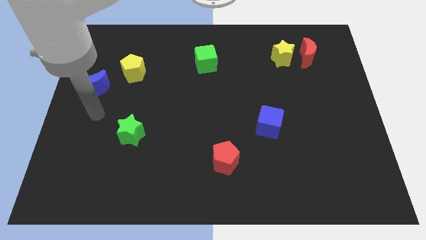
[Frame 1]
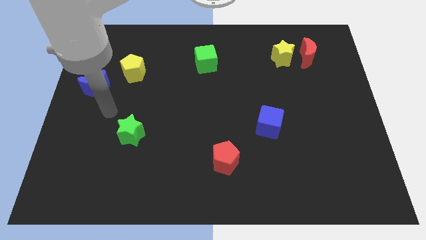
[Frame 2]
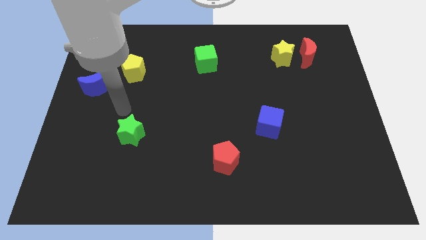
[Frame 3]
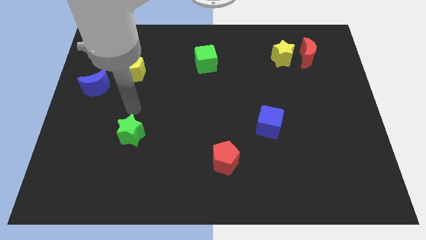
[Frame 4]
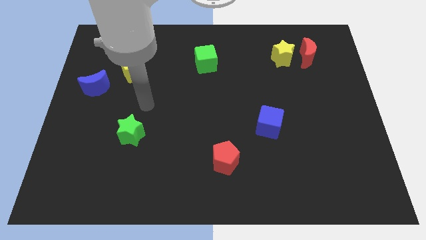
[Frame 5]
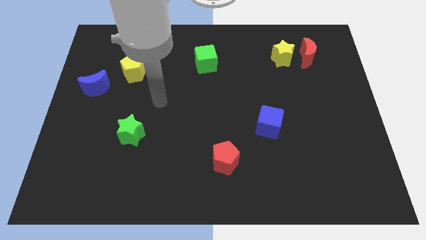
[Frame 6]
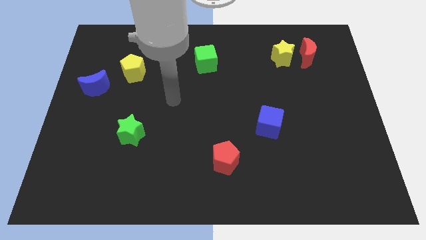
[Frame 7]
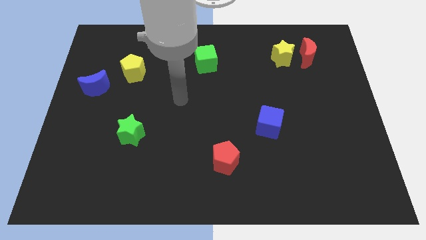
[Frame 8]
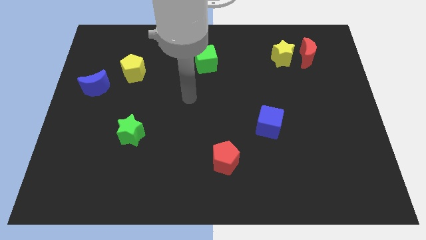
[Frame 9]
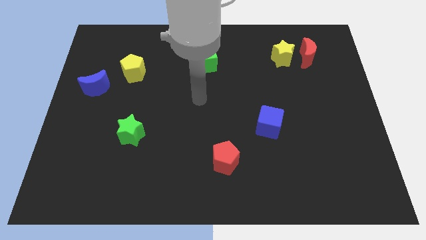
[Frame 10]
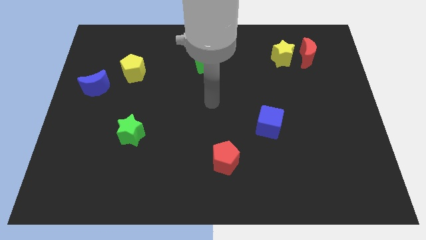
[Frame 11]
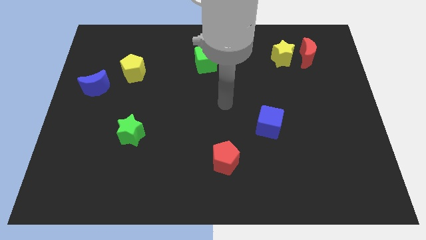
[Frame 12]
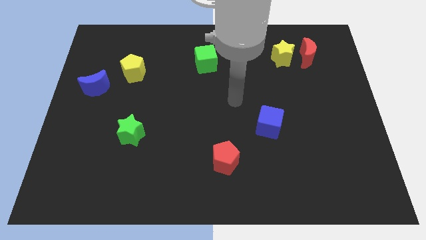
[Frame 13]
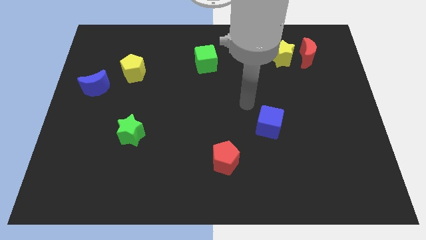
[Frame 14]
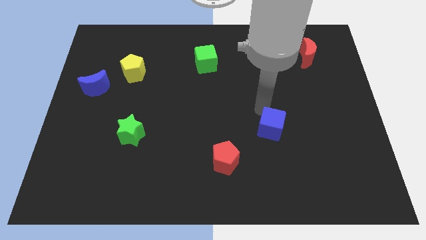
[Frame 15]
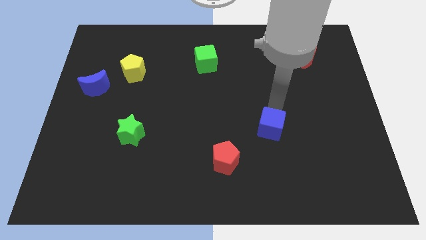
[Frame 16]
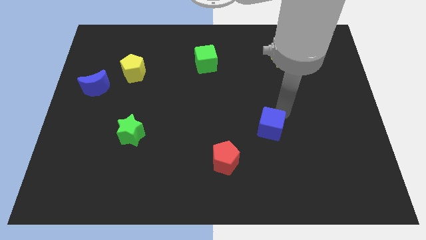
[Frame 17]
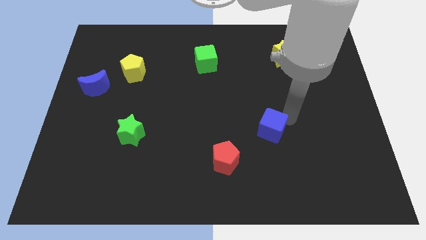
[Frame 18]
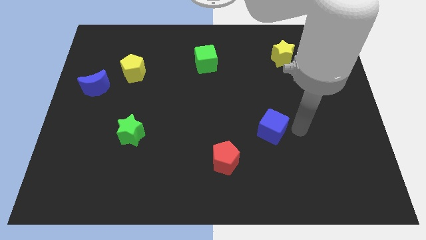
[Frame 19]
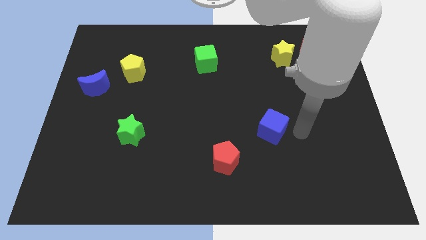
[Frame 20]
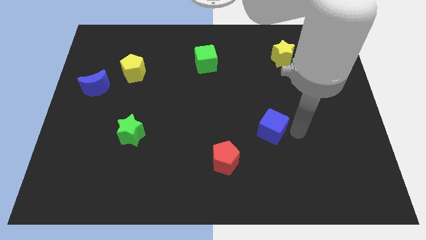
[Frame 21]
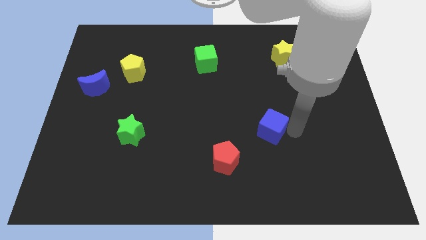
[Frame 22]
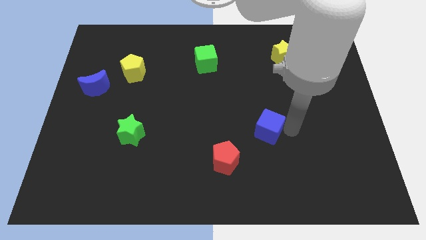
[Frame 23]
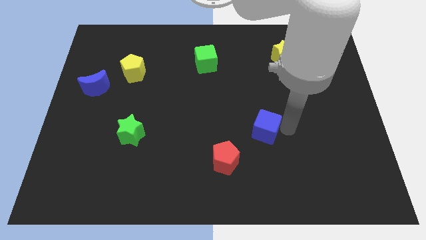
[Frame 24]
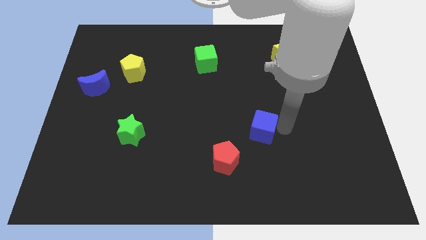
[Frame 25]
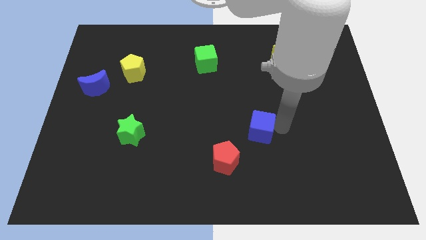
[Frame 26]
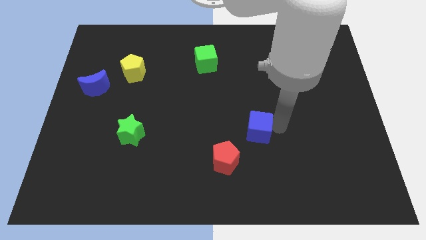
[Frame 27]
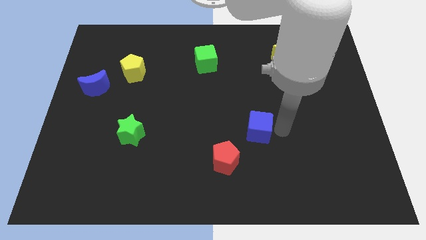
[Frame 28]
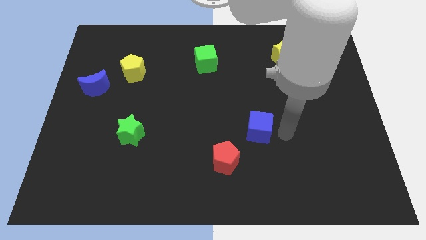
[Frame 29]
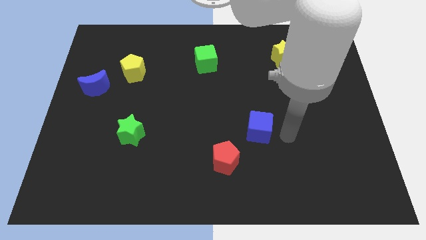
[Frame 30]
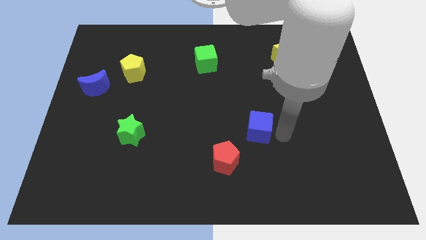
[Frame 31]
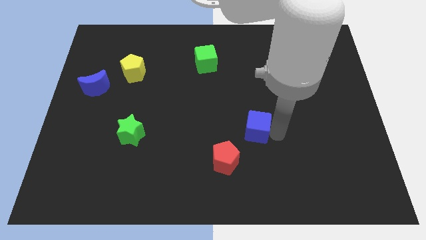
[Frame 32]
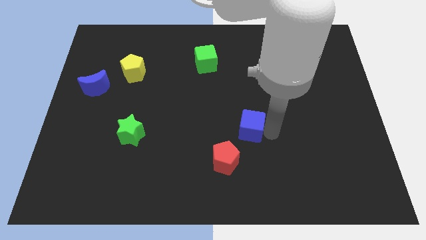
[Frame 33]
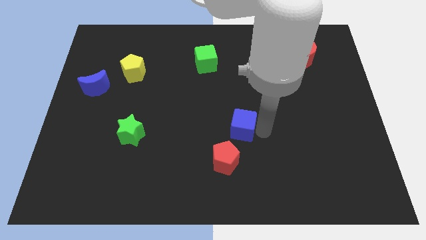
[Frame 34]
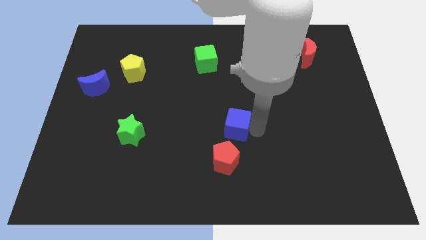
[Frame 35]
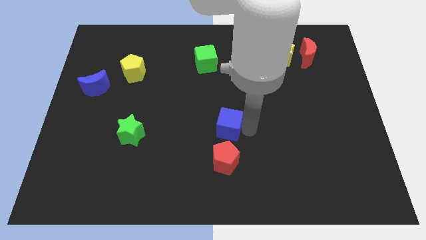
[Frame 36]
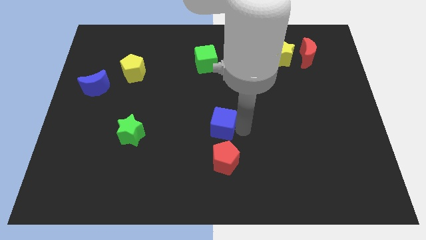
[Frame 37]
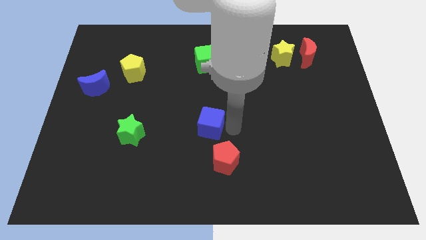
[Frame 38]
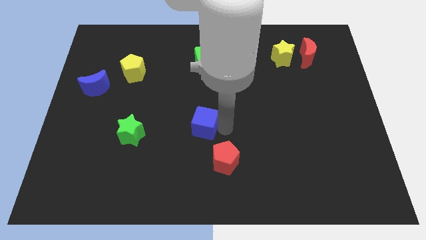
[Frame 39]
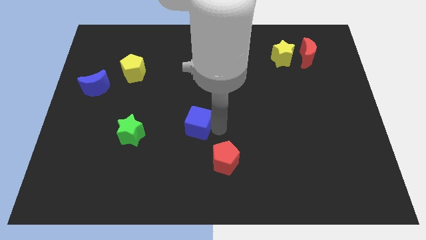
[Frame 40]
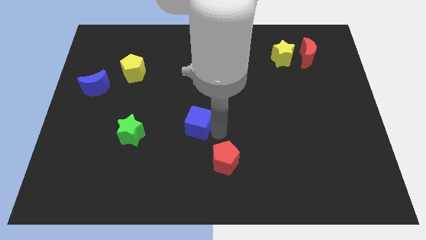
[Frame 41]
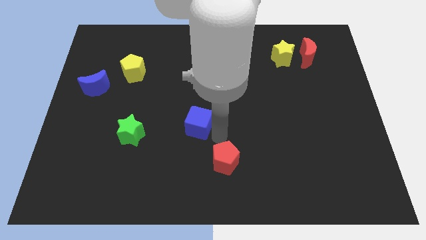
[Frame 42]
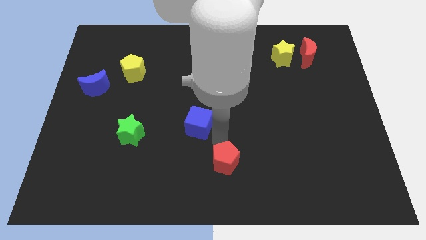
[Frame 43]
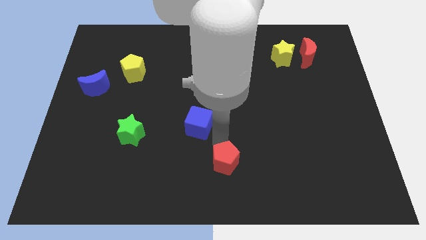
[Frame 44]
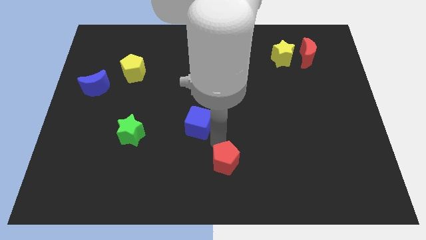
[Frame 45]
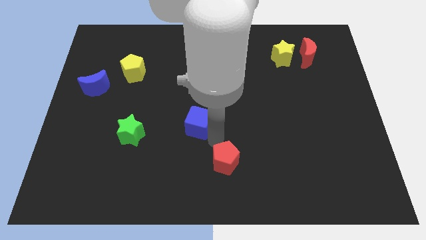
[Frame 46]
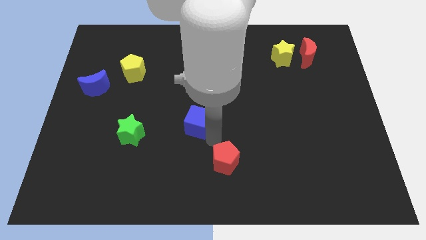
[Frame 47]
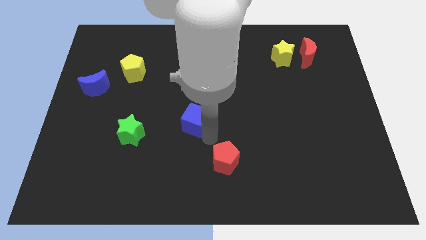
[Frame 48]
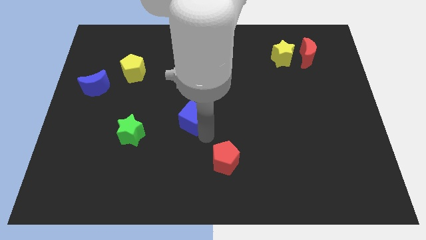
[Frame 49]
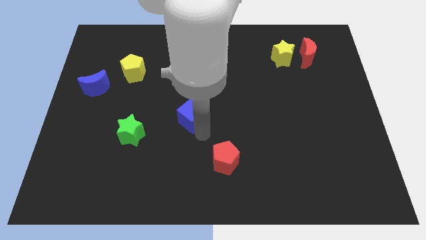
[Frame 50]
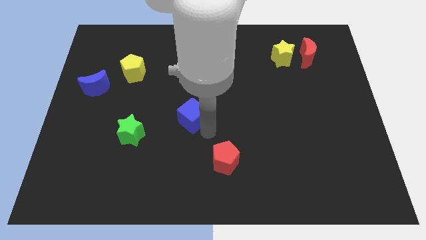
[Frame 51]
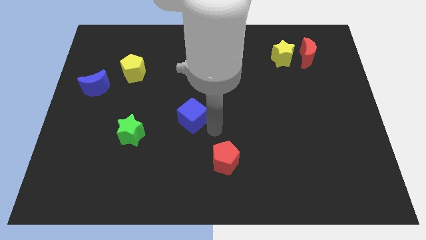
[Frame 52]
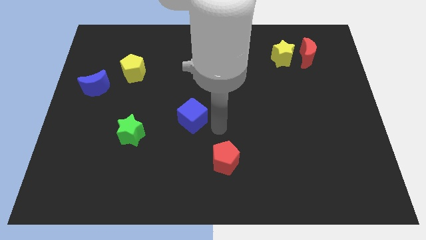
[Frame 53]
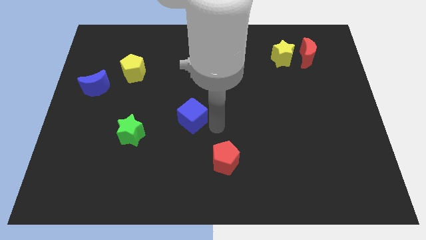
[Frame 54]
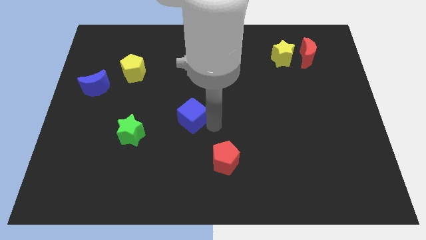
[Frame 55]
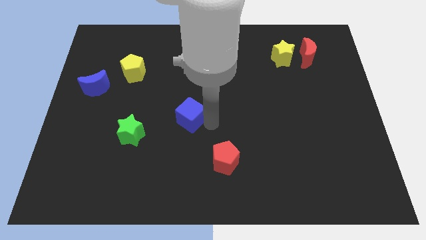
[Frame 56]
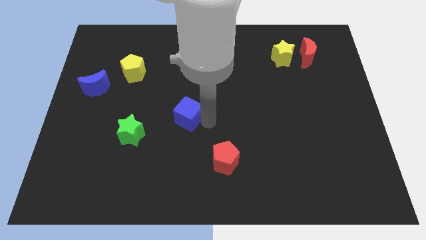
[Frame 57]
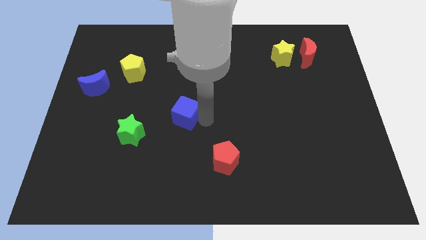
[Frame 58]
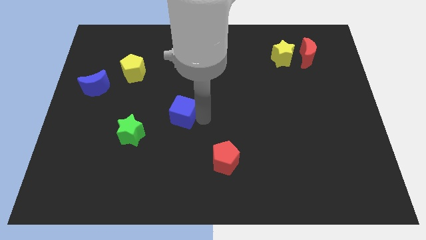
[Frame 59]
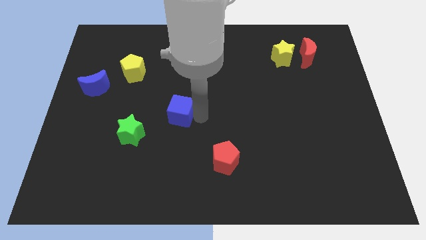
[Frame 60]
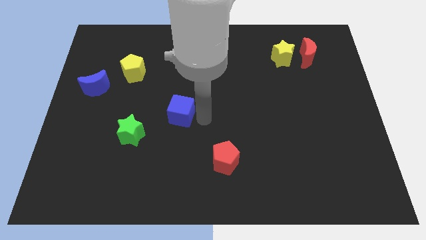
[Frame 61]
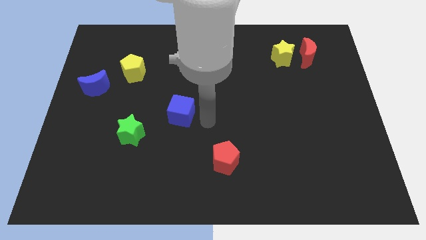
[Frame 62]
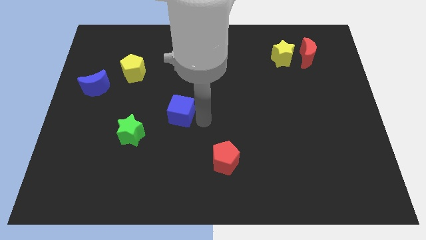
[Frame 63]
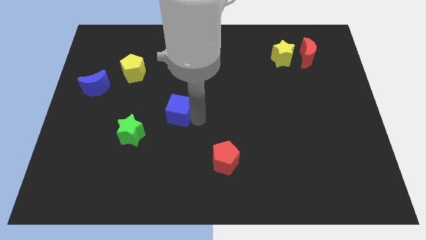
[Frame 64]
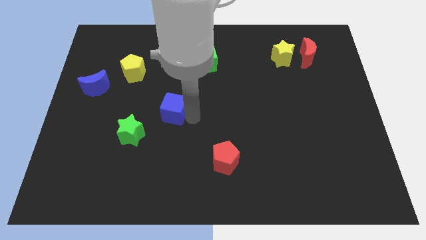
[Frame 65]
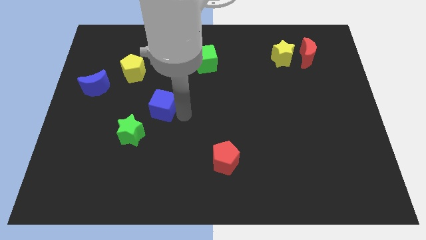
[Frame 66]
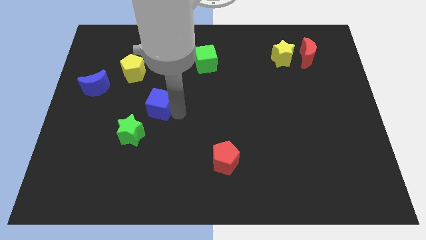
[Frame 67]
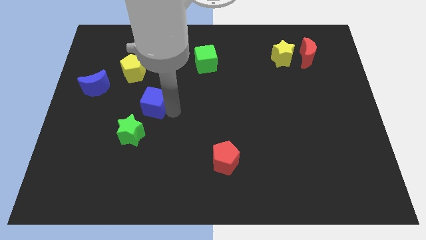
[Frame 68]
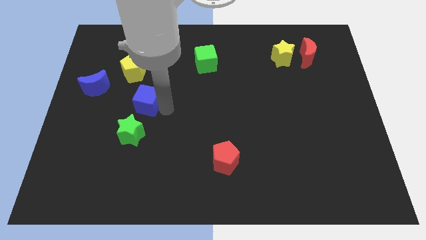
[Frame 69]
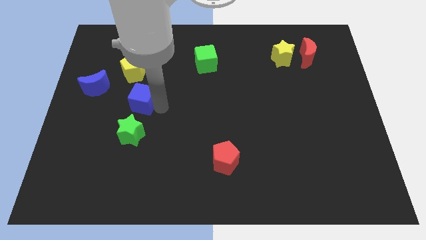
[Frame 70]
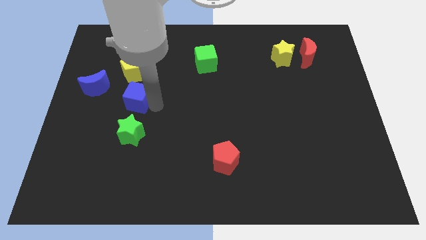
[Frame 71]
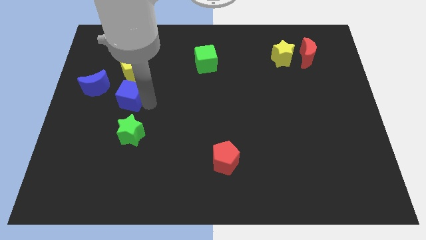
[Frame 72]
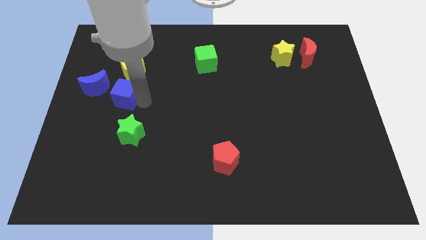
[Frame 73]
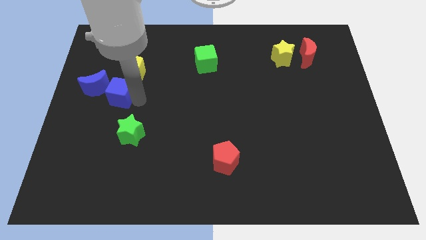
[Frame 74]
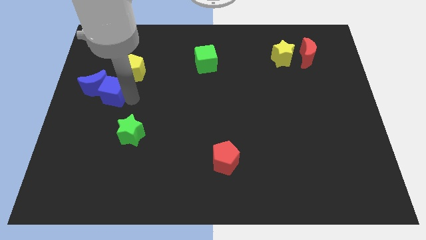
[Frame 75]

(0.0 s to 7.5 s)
slide the blue cube close to the blue moon
